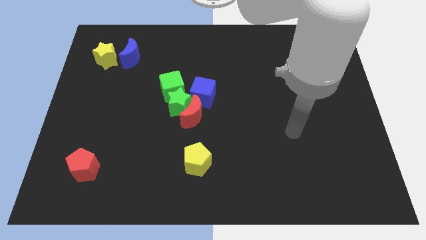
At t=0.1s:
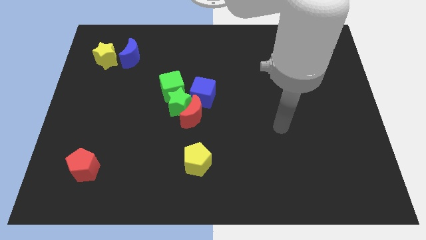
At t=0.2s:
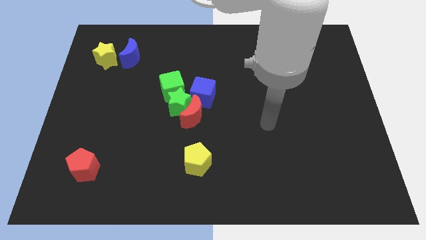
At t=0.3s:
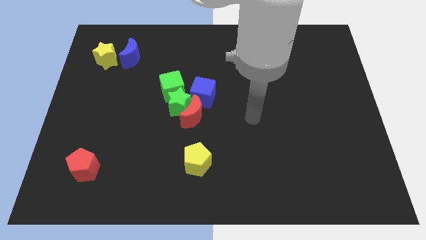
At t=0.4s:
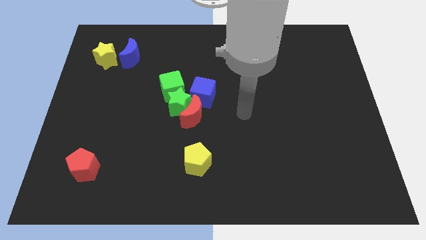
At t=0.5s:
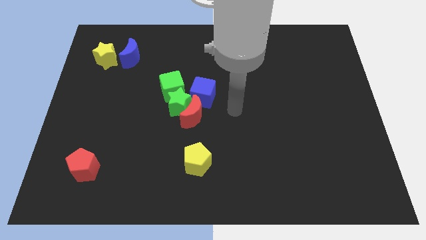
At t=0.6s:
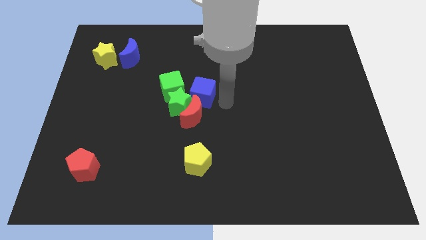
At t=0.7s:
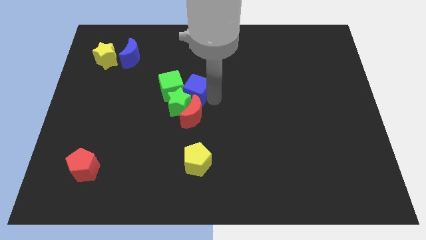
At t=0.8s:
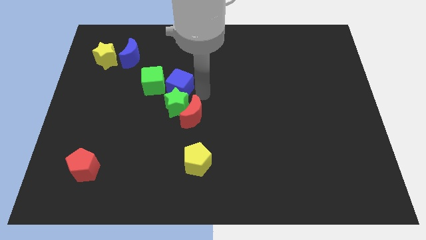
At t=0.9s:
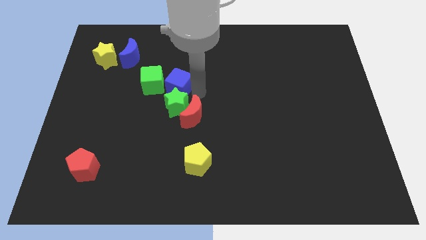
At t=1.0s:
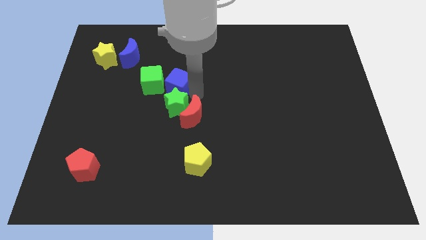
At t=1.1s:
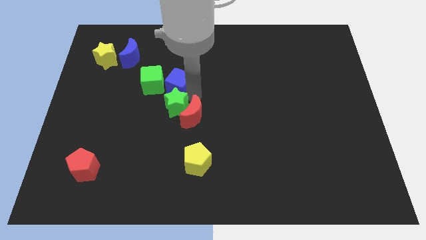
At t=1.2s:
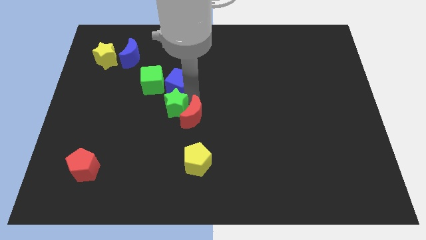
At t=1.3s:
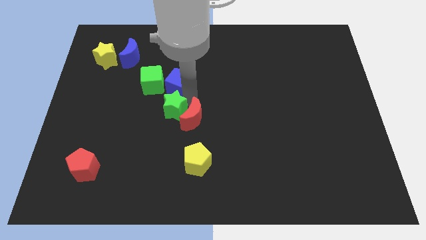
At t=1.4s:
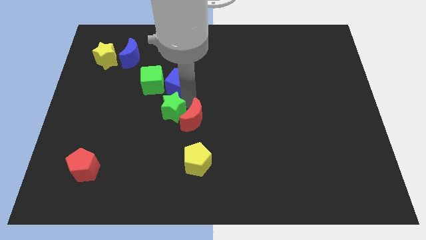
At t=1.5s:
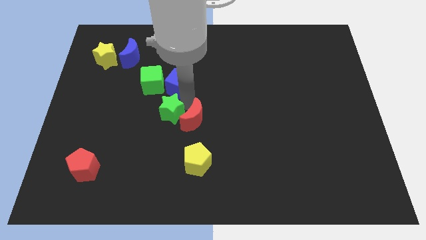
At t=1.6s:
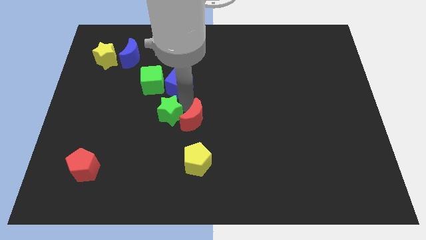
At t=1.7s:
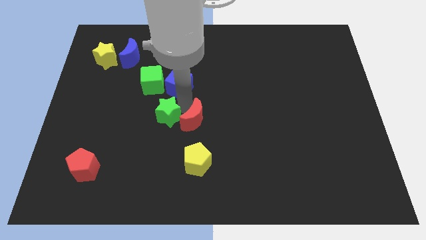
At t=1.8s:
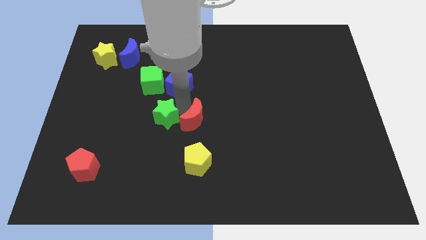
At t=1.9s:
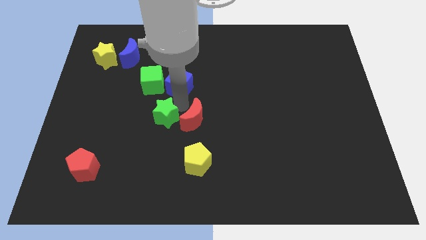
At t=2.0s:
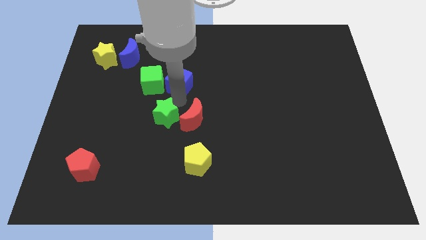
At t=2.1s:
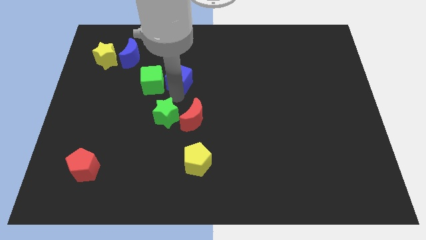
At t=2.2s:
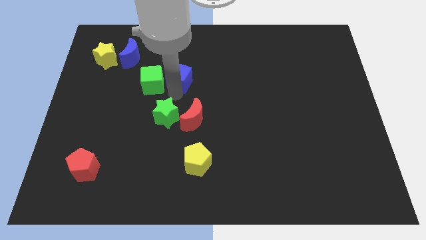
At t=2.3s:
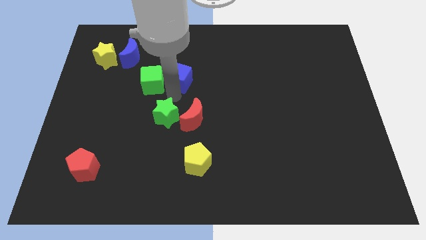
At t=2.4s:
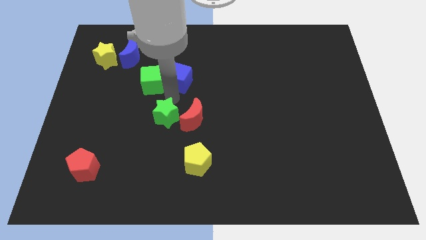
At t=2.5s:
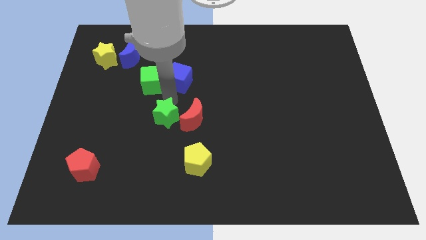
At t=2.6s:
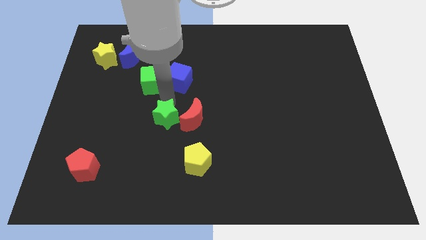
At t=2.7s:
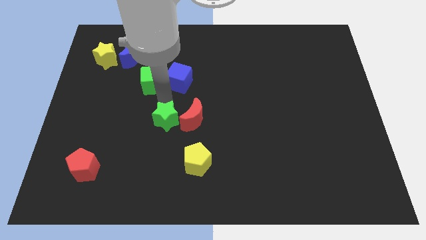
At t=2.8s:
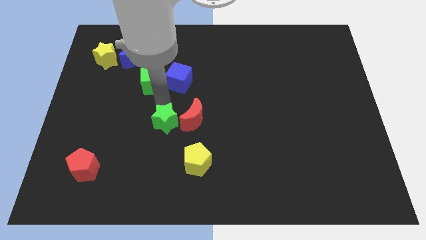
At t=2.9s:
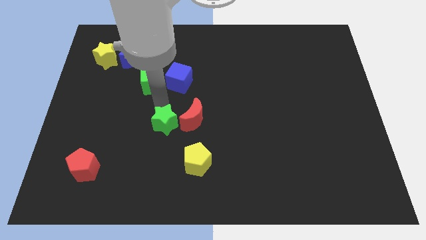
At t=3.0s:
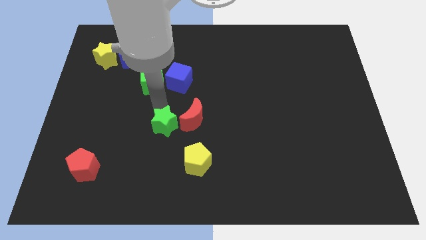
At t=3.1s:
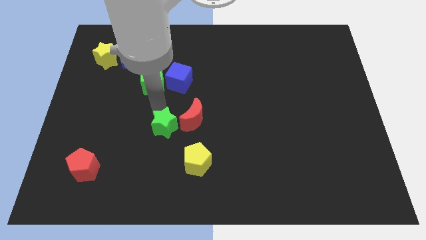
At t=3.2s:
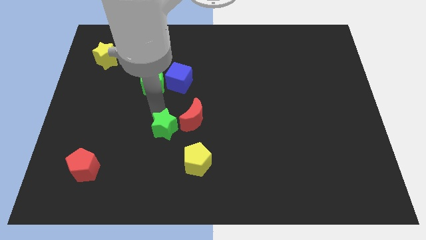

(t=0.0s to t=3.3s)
move the green star away from the group

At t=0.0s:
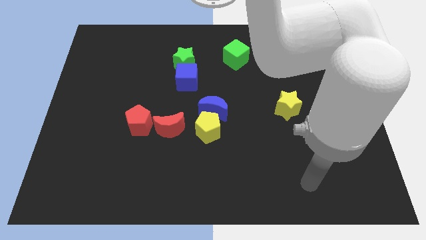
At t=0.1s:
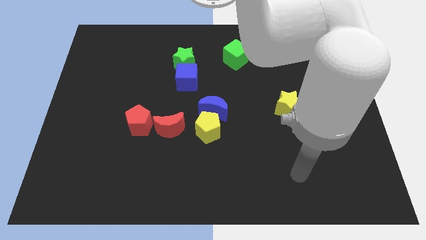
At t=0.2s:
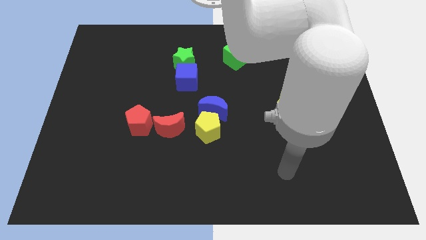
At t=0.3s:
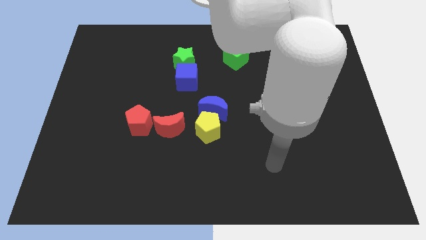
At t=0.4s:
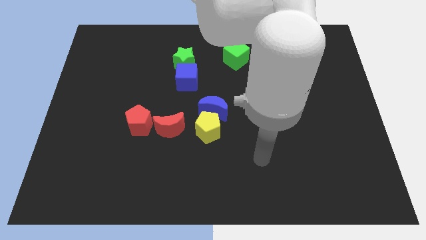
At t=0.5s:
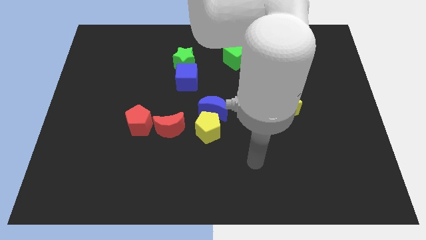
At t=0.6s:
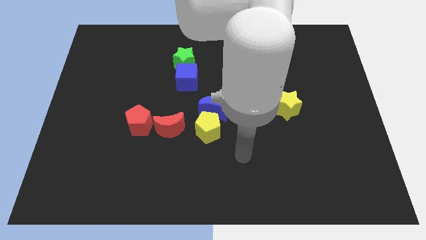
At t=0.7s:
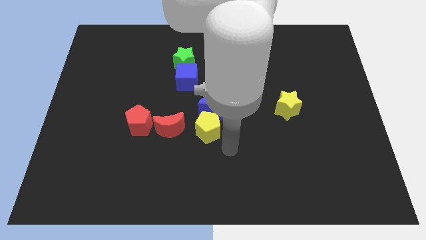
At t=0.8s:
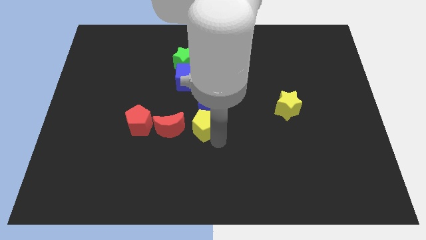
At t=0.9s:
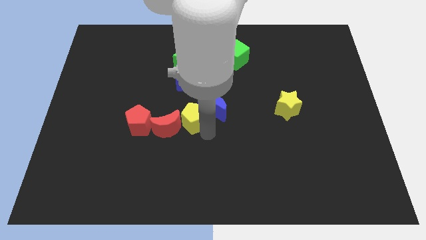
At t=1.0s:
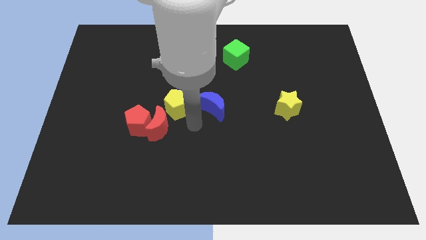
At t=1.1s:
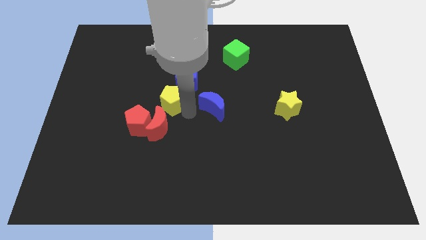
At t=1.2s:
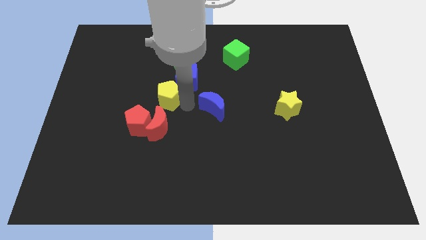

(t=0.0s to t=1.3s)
separate the blue moon from the yellow pentagon

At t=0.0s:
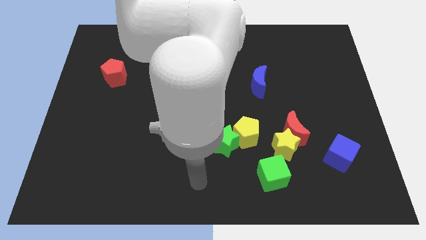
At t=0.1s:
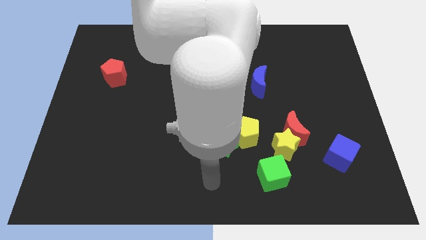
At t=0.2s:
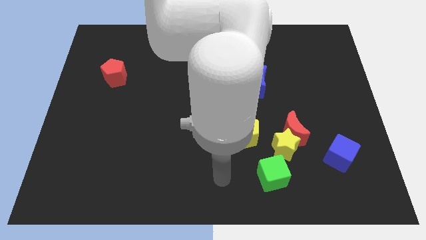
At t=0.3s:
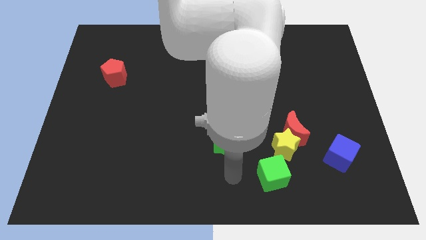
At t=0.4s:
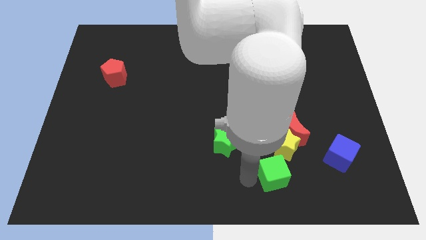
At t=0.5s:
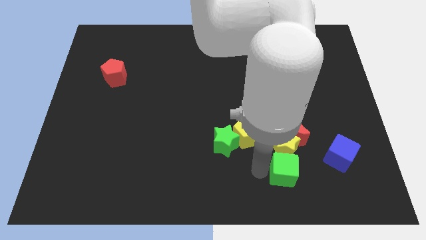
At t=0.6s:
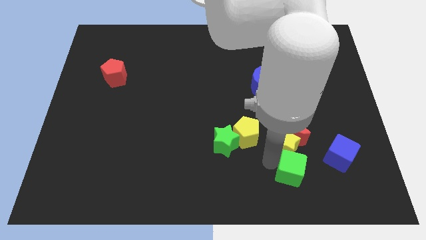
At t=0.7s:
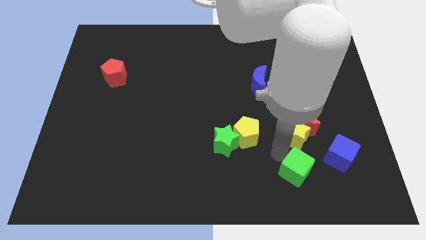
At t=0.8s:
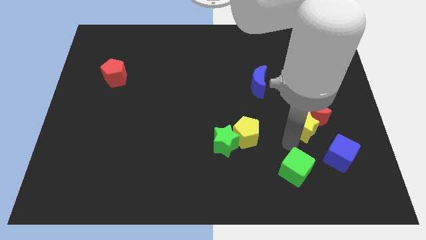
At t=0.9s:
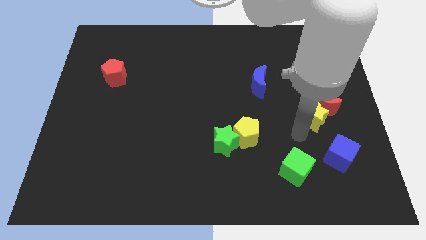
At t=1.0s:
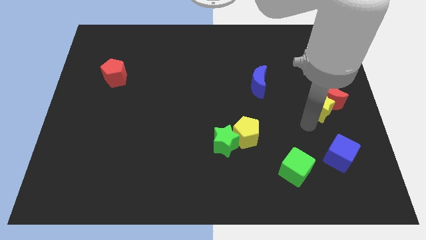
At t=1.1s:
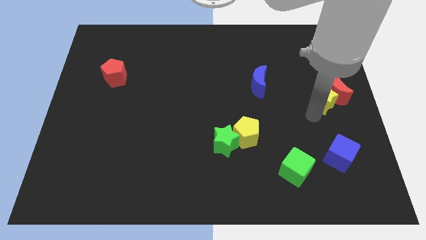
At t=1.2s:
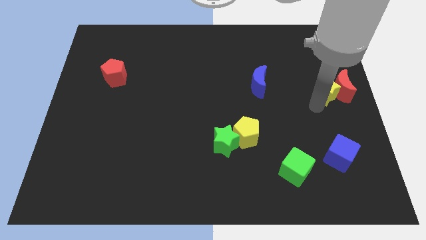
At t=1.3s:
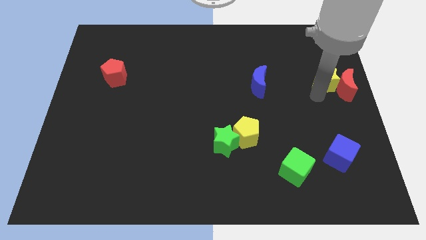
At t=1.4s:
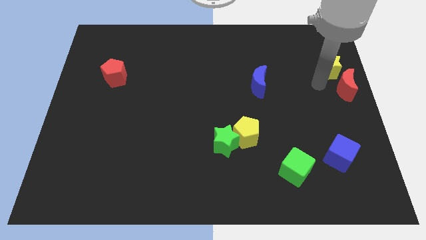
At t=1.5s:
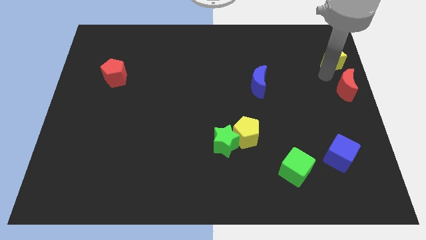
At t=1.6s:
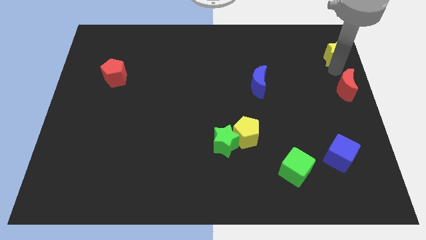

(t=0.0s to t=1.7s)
pull the red moon apart from the yellow star

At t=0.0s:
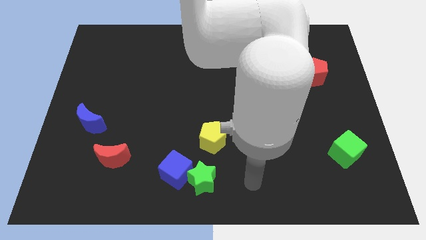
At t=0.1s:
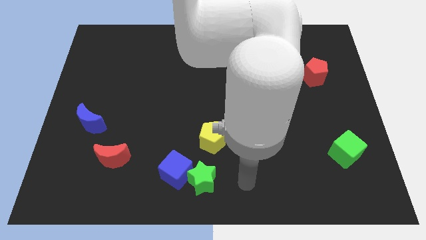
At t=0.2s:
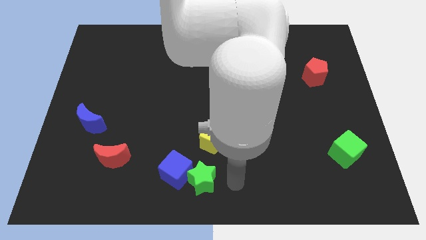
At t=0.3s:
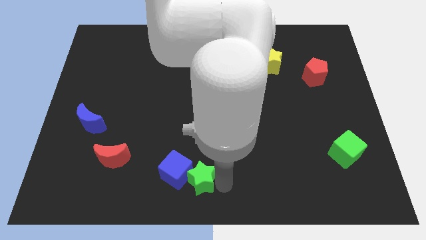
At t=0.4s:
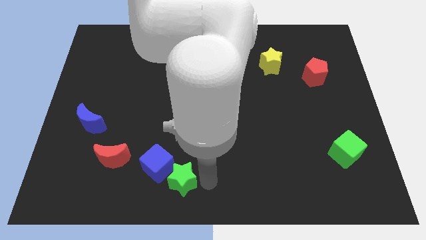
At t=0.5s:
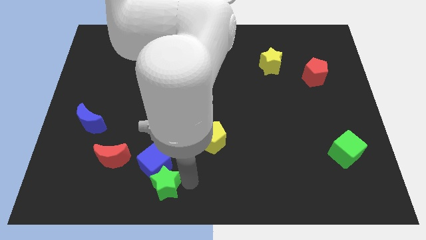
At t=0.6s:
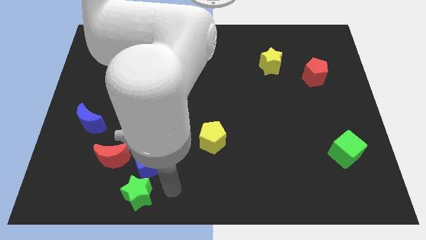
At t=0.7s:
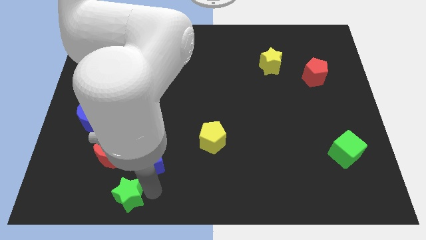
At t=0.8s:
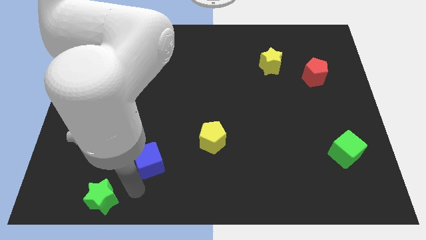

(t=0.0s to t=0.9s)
move the blue cube away from the green star

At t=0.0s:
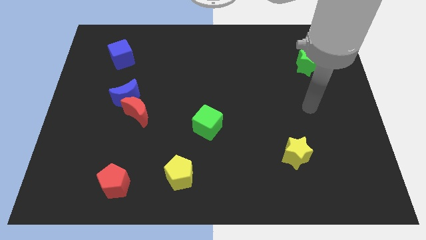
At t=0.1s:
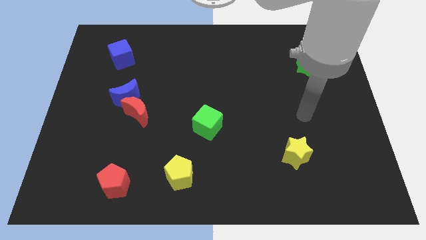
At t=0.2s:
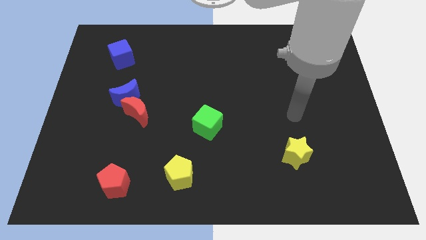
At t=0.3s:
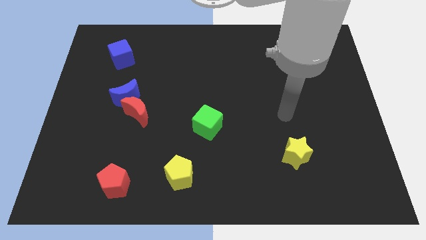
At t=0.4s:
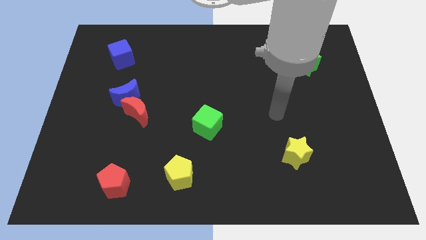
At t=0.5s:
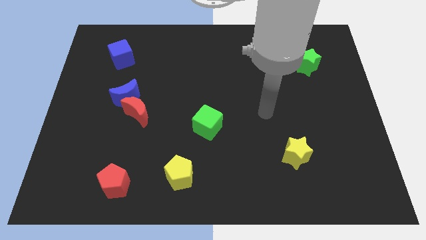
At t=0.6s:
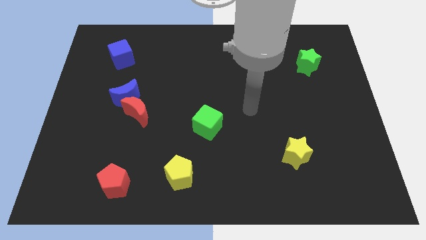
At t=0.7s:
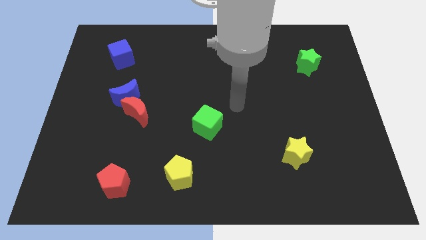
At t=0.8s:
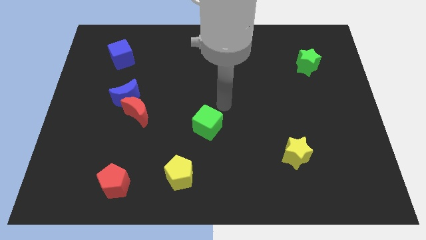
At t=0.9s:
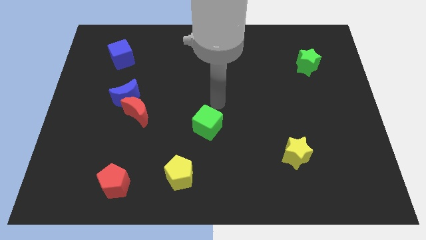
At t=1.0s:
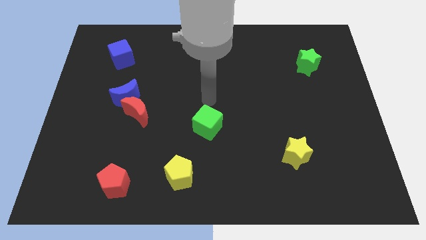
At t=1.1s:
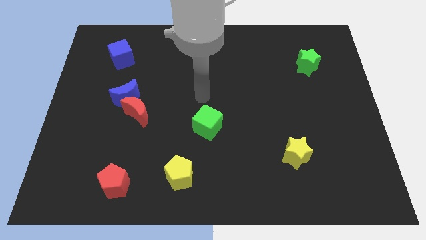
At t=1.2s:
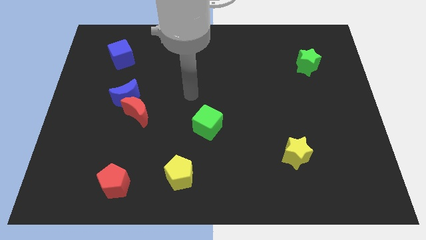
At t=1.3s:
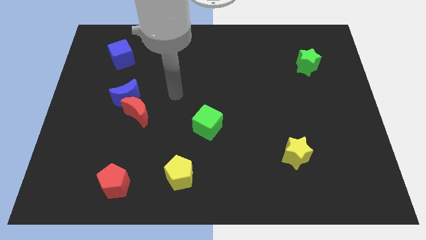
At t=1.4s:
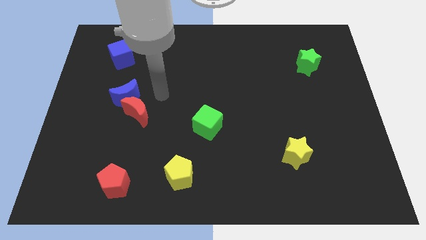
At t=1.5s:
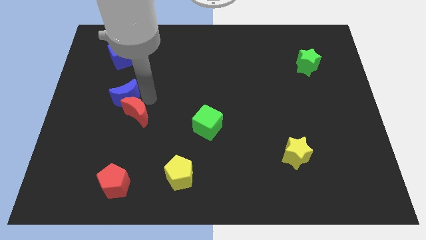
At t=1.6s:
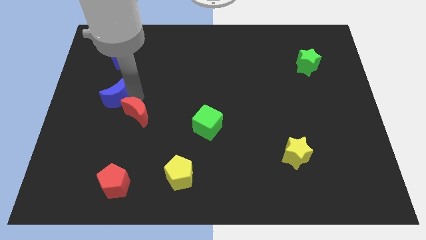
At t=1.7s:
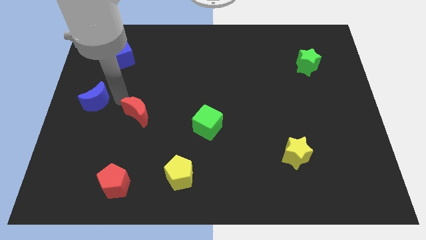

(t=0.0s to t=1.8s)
pull the red moon apart from the blue moon

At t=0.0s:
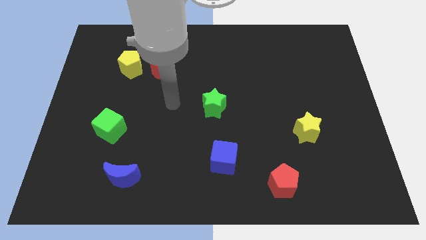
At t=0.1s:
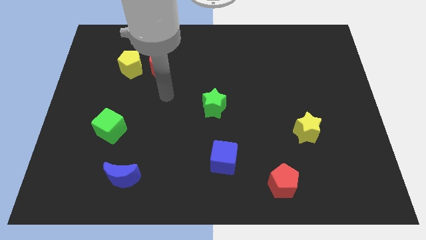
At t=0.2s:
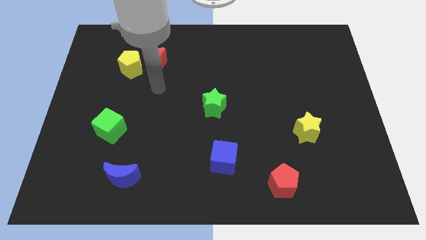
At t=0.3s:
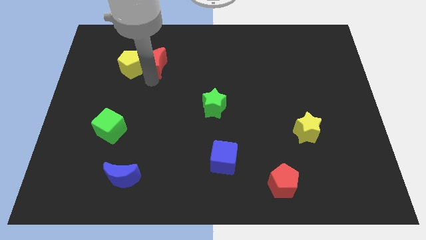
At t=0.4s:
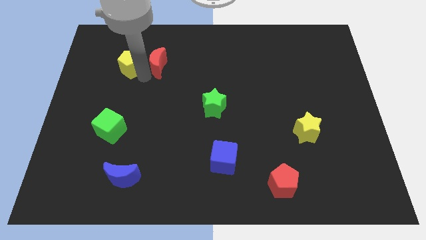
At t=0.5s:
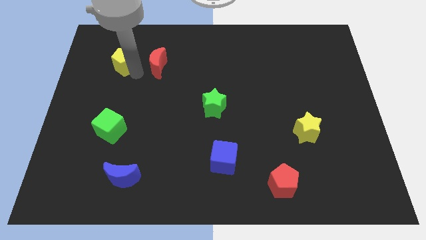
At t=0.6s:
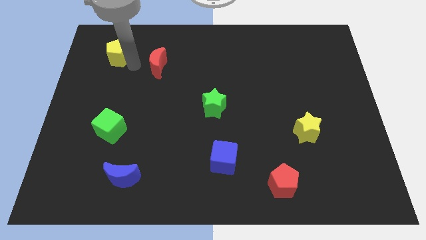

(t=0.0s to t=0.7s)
pull the red moon apart from the yellow pentagon
